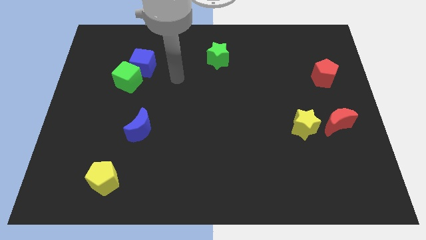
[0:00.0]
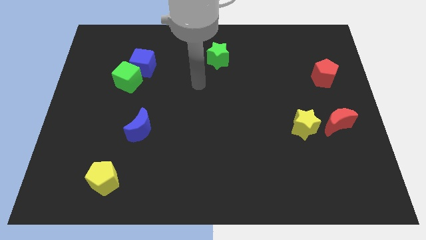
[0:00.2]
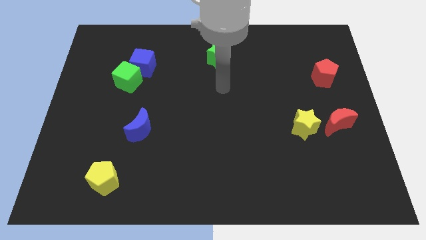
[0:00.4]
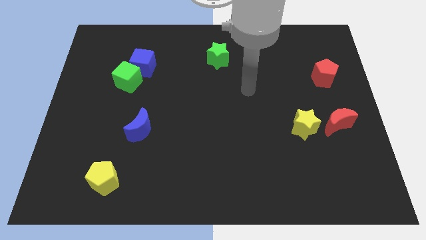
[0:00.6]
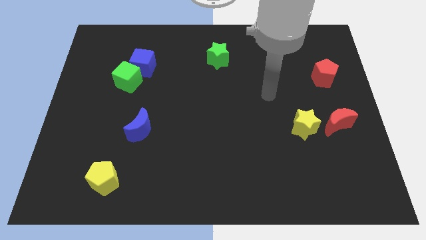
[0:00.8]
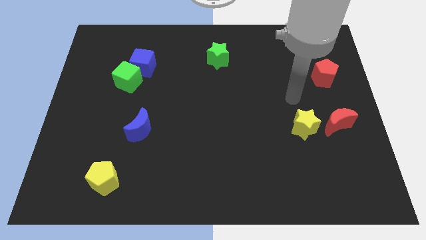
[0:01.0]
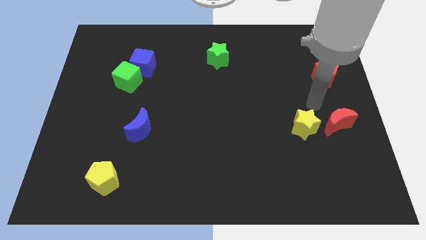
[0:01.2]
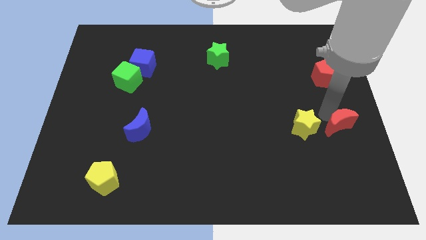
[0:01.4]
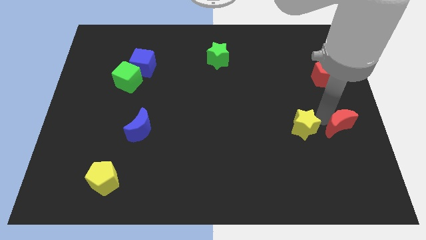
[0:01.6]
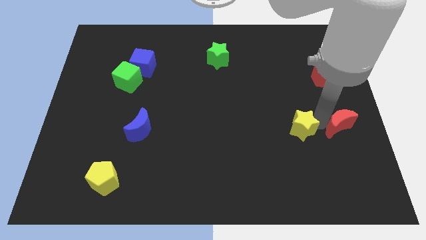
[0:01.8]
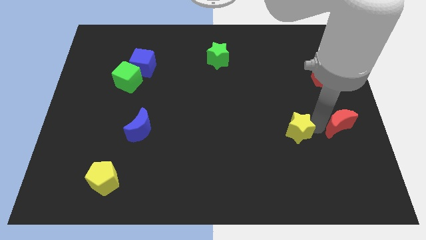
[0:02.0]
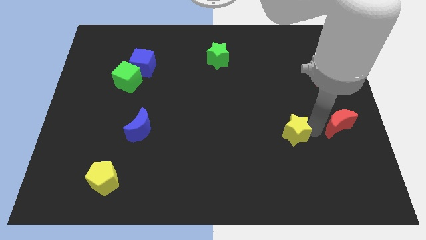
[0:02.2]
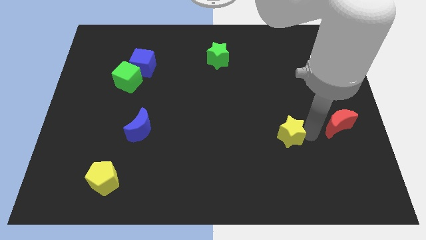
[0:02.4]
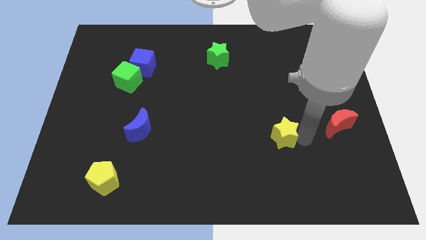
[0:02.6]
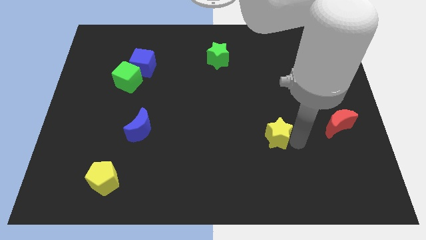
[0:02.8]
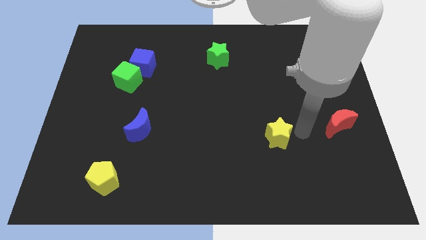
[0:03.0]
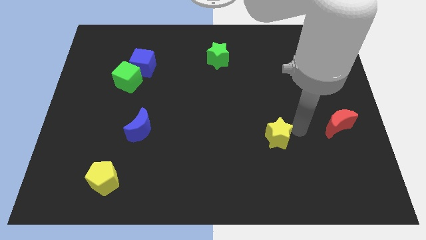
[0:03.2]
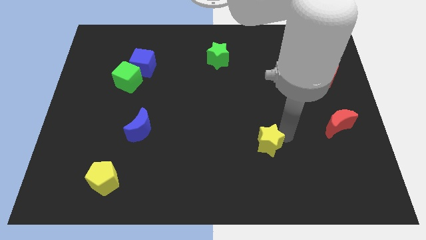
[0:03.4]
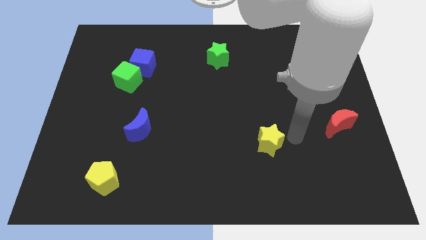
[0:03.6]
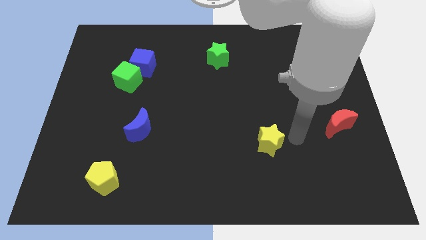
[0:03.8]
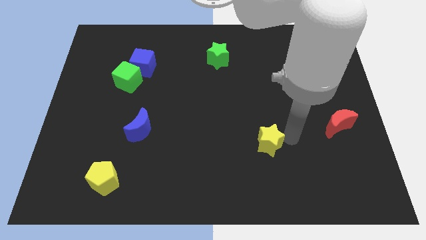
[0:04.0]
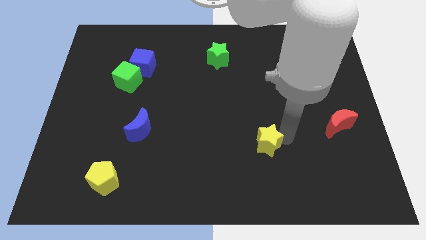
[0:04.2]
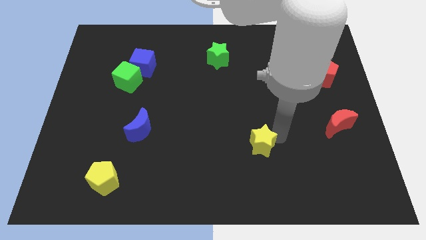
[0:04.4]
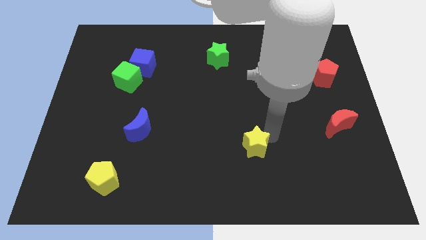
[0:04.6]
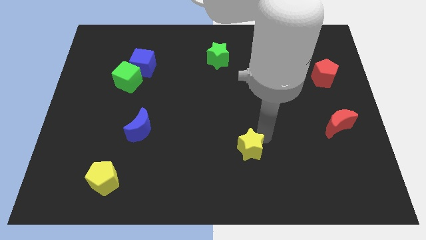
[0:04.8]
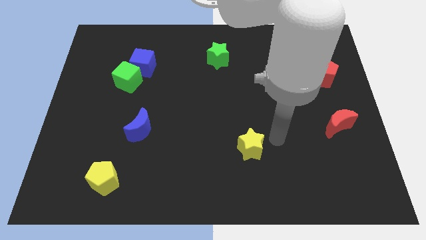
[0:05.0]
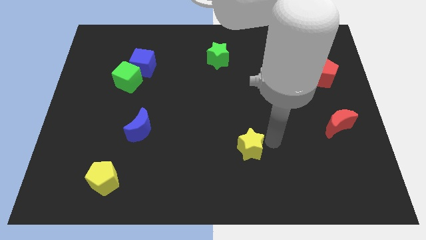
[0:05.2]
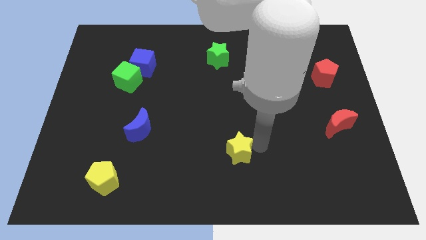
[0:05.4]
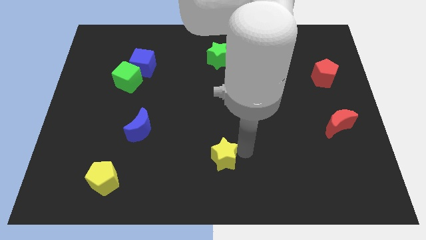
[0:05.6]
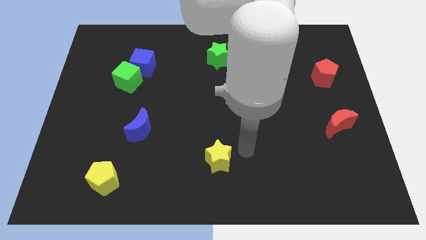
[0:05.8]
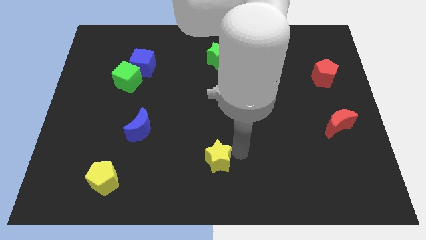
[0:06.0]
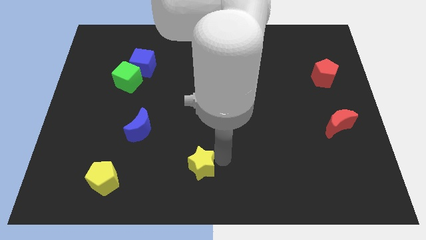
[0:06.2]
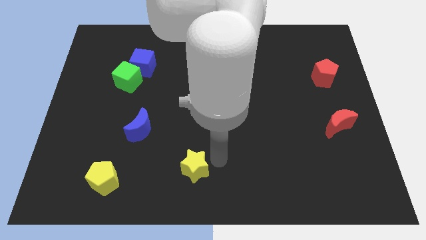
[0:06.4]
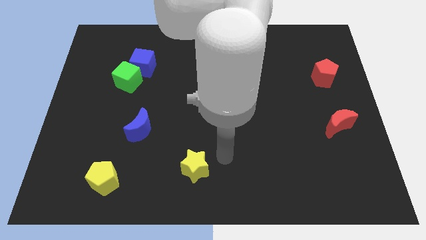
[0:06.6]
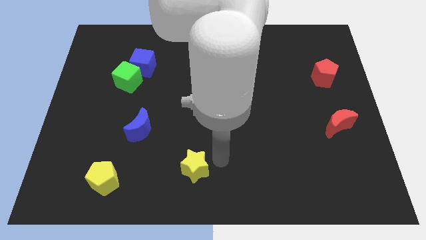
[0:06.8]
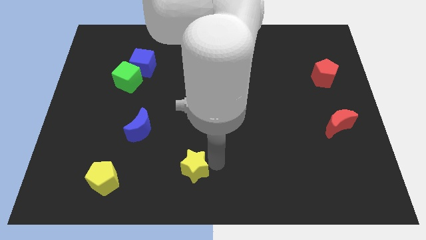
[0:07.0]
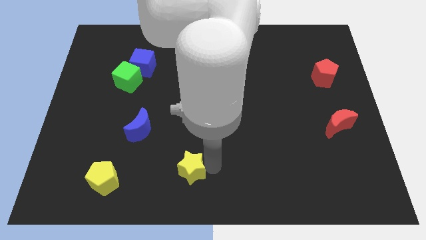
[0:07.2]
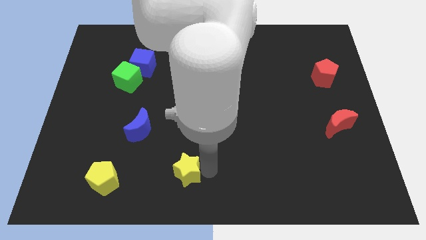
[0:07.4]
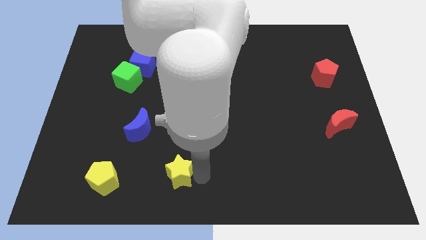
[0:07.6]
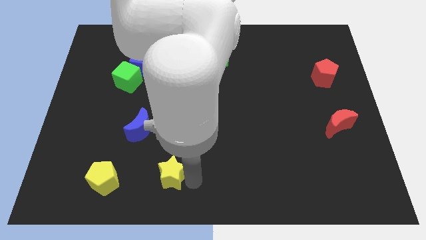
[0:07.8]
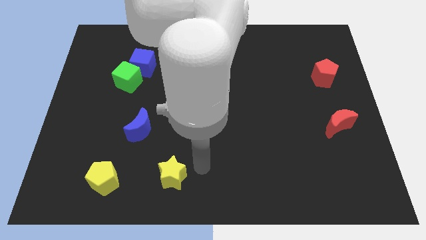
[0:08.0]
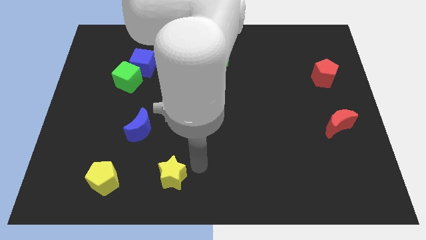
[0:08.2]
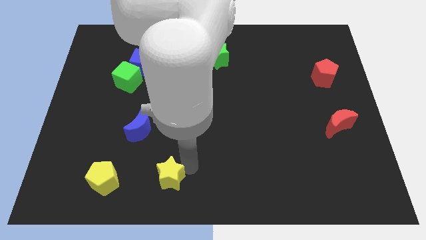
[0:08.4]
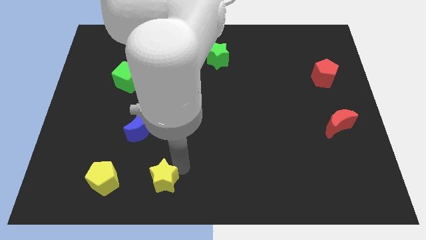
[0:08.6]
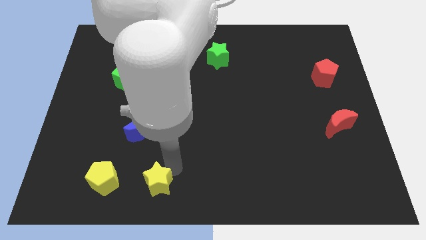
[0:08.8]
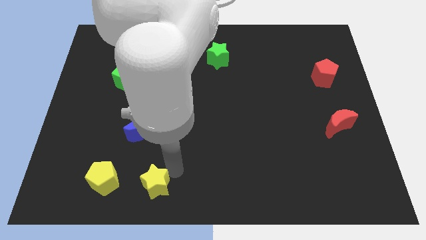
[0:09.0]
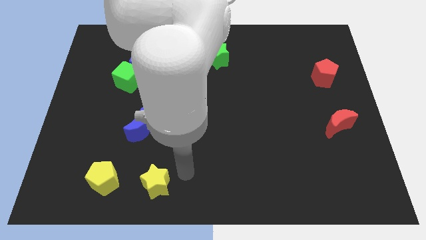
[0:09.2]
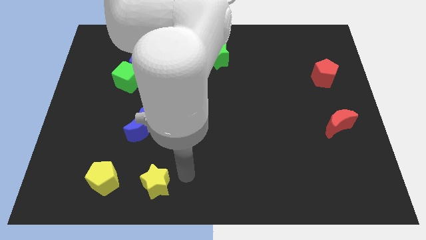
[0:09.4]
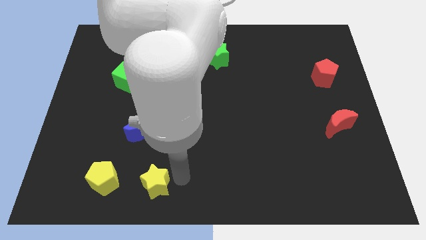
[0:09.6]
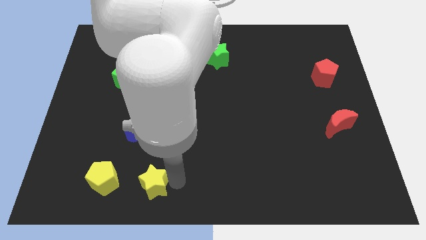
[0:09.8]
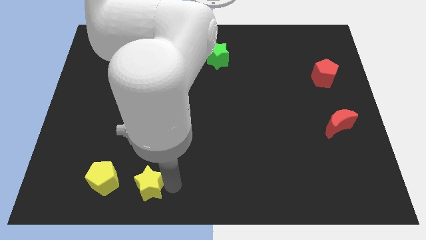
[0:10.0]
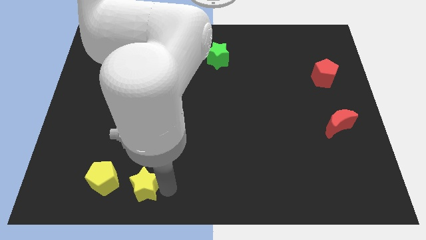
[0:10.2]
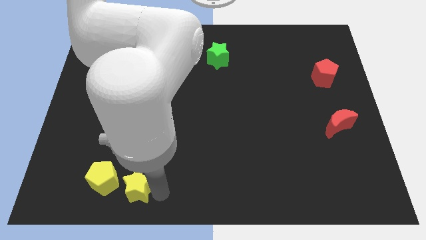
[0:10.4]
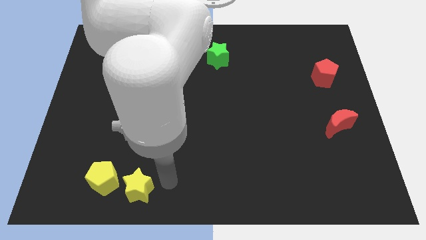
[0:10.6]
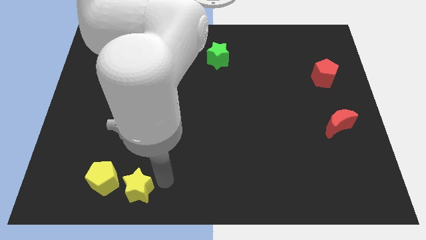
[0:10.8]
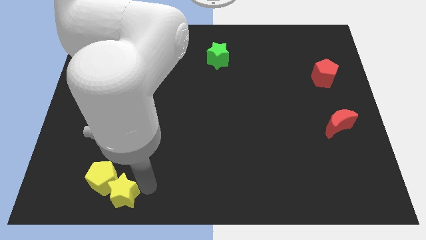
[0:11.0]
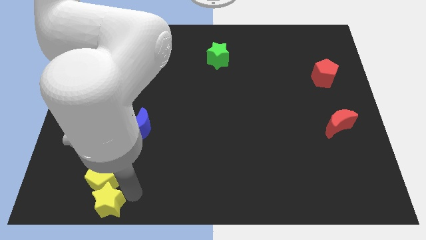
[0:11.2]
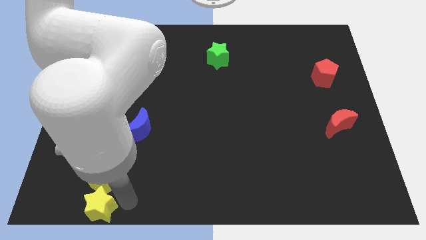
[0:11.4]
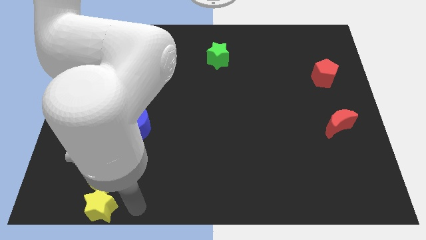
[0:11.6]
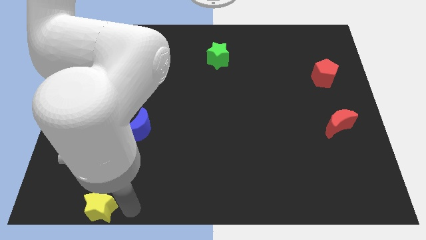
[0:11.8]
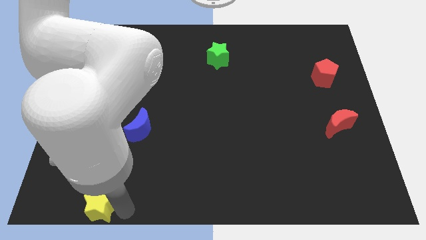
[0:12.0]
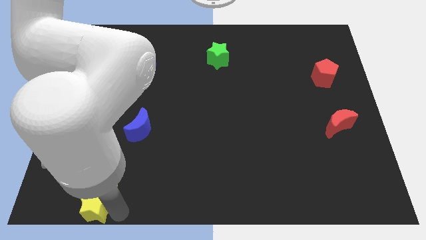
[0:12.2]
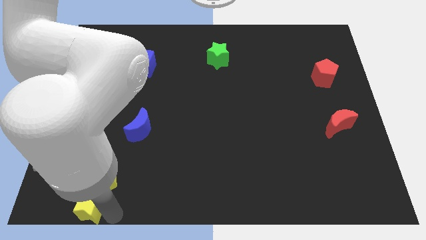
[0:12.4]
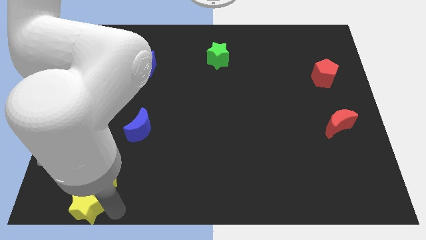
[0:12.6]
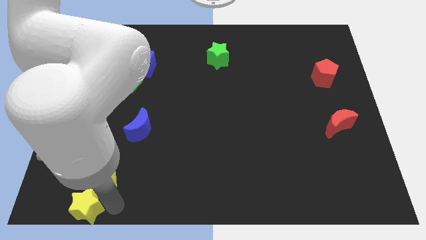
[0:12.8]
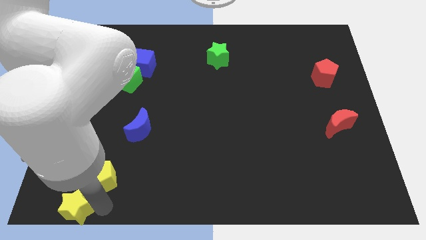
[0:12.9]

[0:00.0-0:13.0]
slide the yellow star to the bottom left of the board
